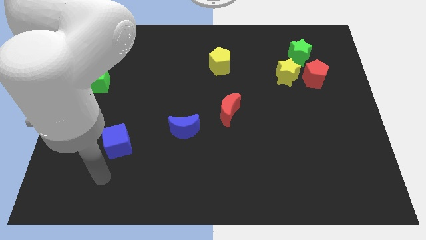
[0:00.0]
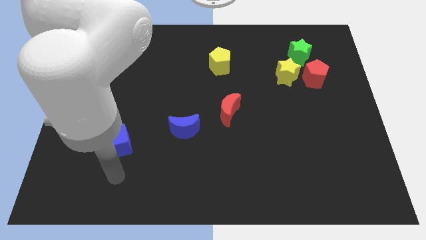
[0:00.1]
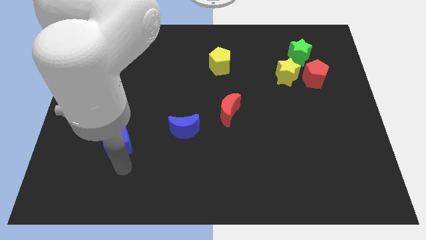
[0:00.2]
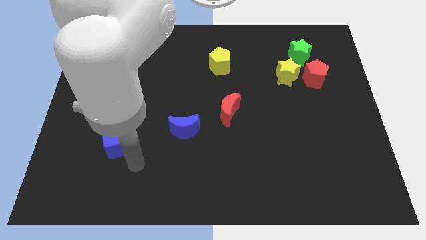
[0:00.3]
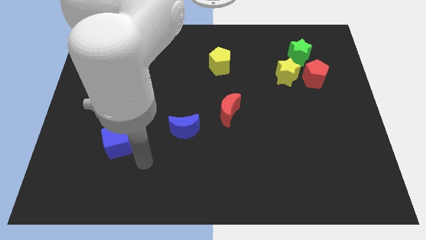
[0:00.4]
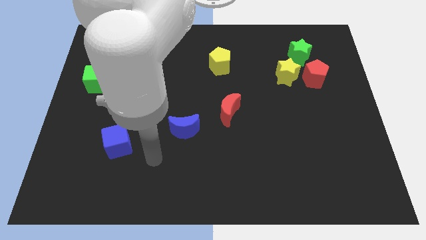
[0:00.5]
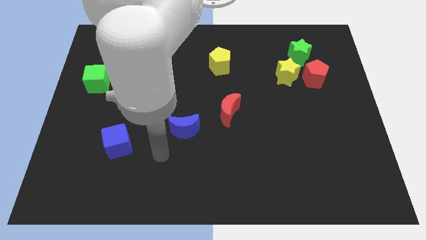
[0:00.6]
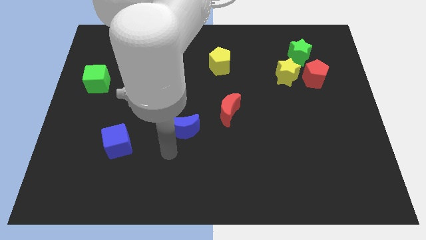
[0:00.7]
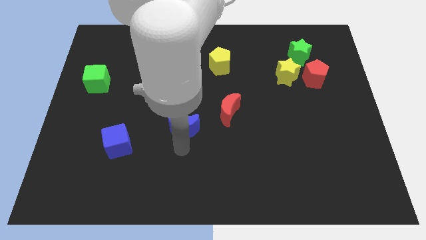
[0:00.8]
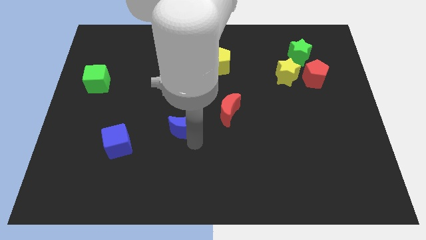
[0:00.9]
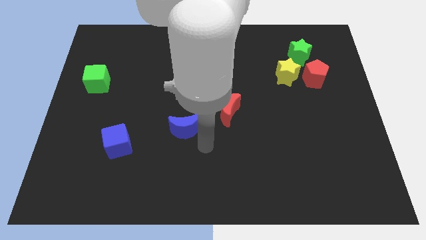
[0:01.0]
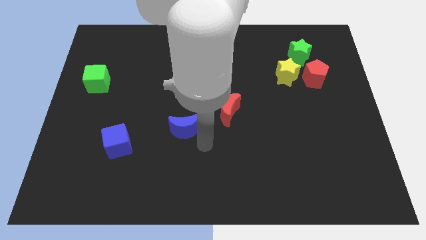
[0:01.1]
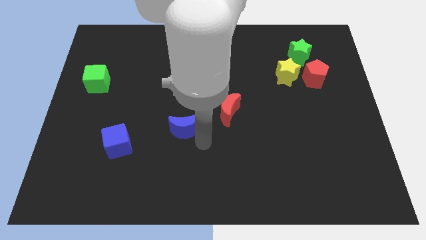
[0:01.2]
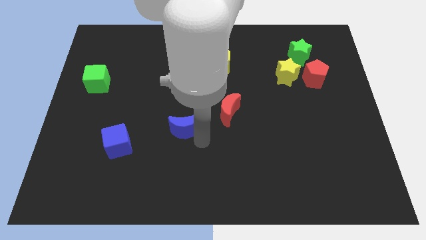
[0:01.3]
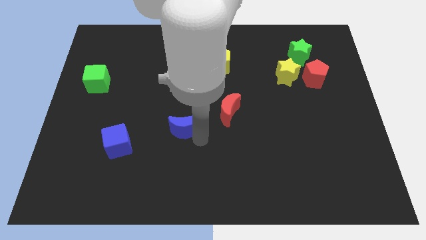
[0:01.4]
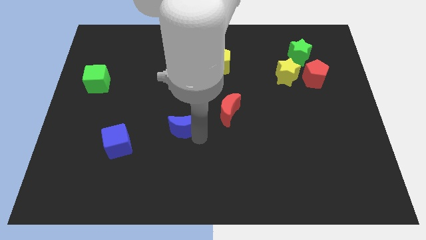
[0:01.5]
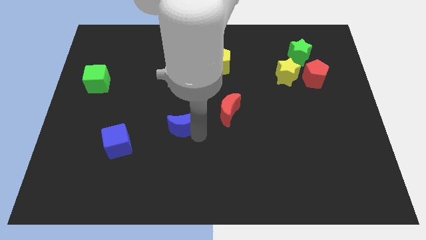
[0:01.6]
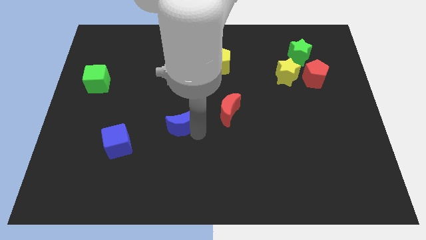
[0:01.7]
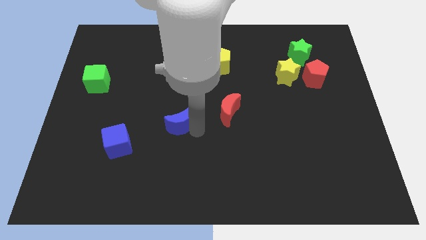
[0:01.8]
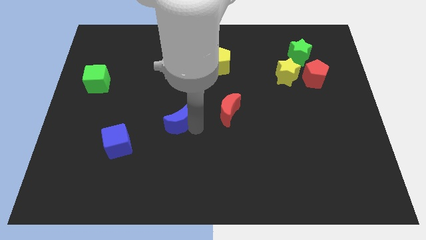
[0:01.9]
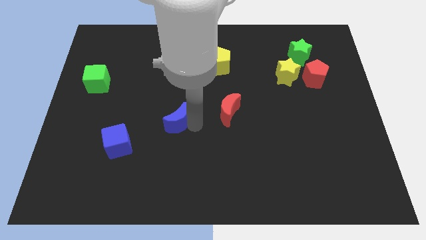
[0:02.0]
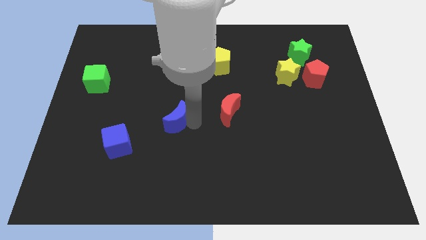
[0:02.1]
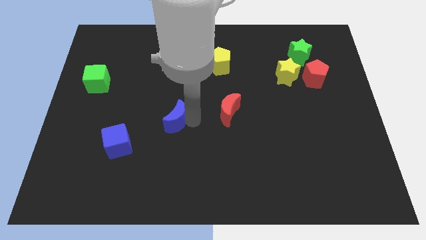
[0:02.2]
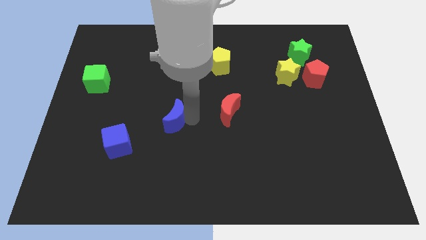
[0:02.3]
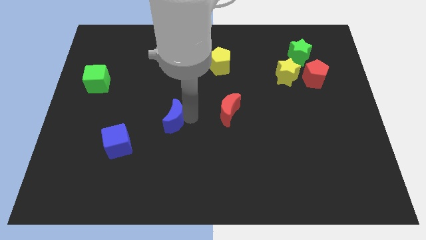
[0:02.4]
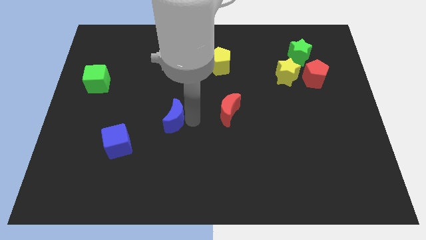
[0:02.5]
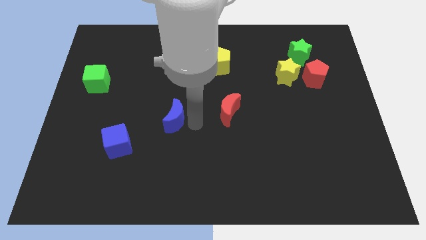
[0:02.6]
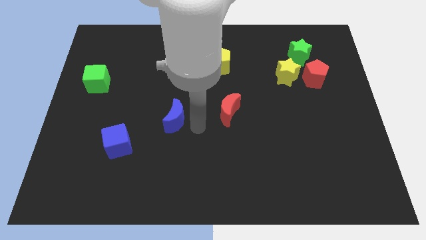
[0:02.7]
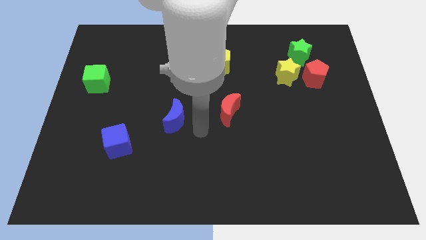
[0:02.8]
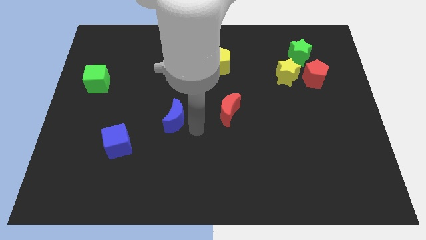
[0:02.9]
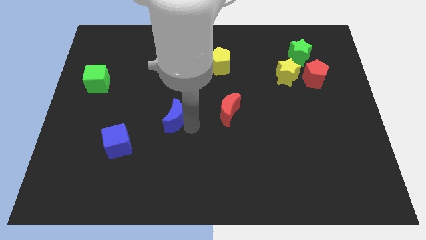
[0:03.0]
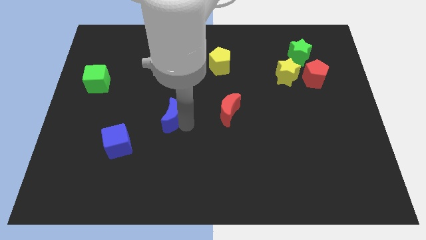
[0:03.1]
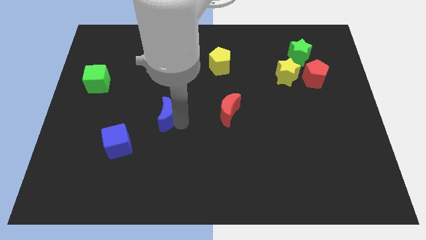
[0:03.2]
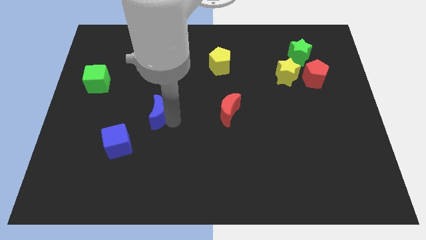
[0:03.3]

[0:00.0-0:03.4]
slightly push the blue moon upwards and then to the left

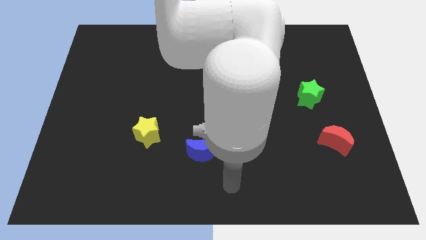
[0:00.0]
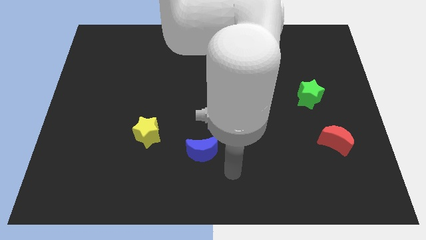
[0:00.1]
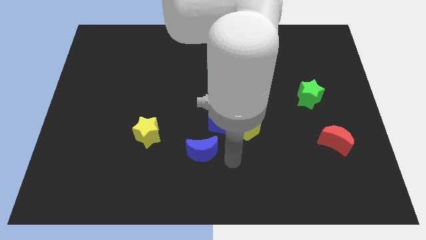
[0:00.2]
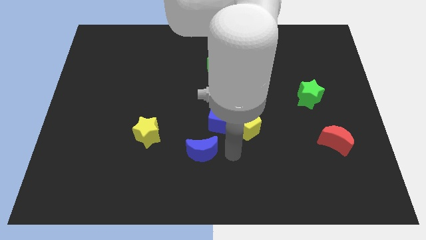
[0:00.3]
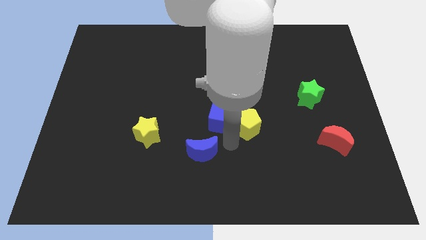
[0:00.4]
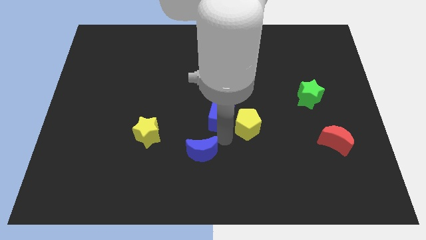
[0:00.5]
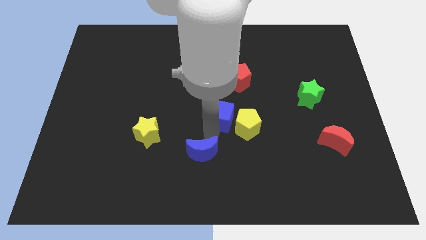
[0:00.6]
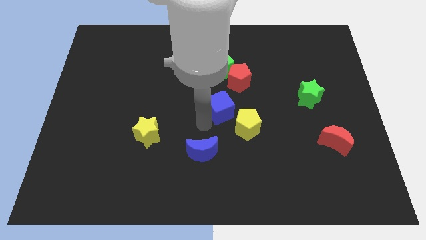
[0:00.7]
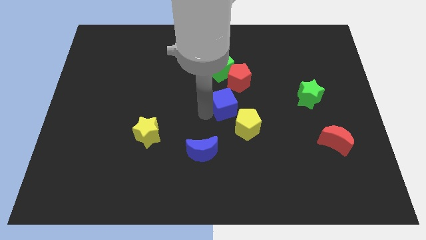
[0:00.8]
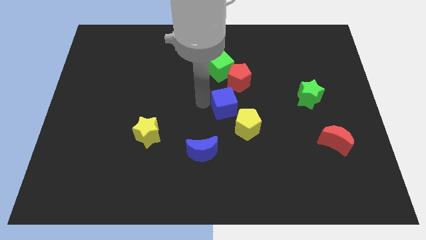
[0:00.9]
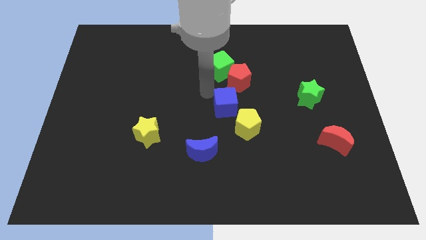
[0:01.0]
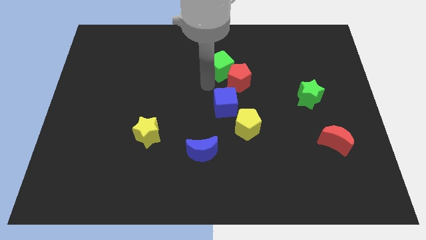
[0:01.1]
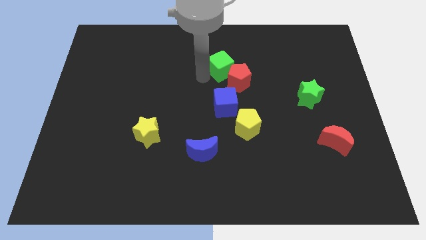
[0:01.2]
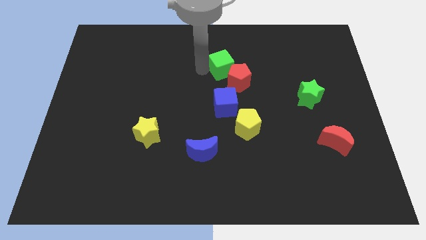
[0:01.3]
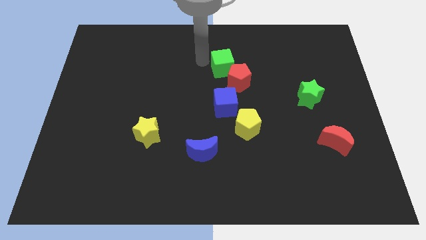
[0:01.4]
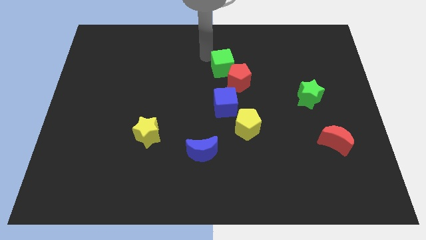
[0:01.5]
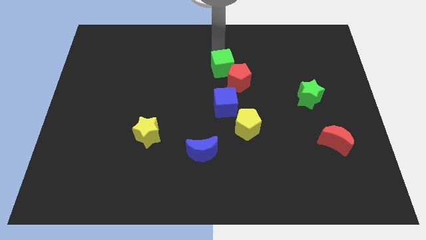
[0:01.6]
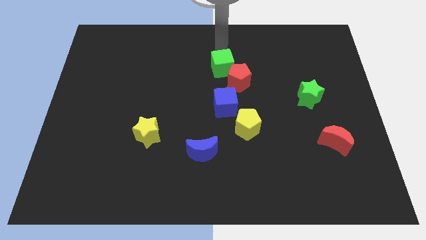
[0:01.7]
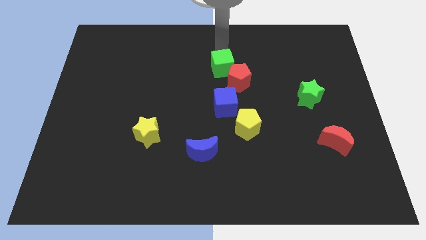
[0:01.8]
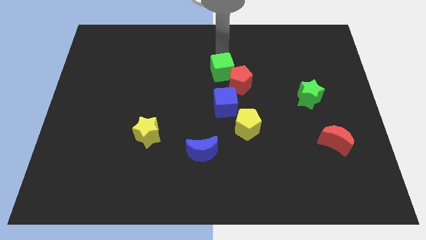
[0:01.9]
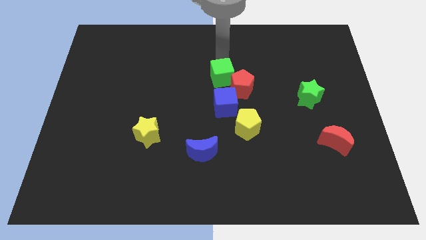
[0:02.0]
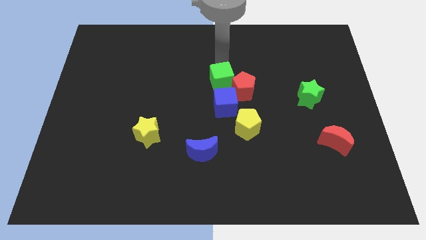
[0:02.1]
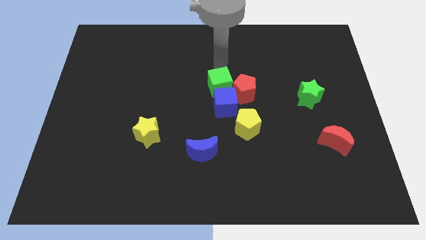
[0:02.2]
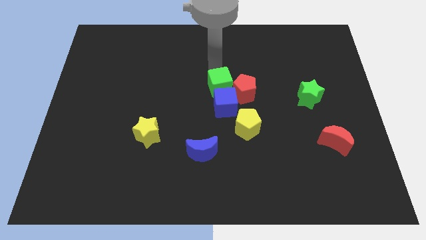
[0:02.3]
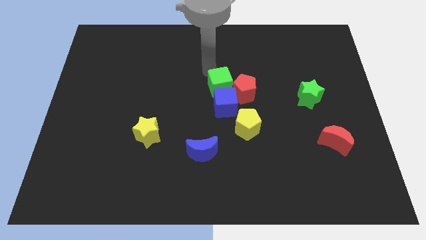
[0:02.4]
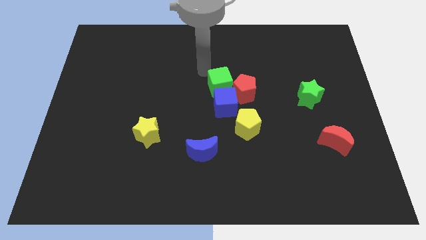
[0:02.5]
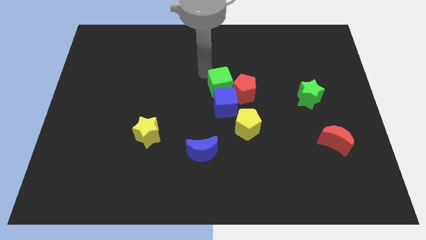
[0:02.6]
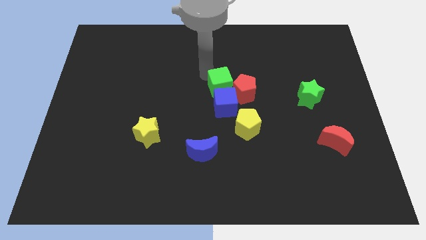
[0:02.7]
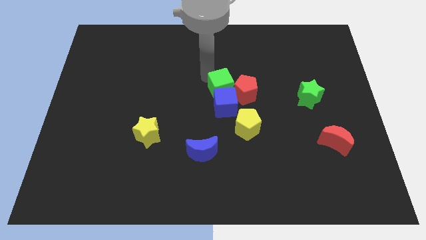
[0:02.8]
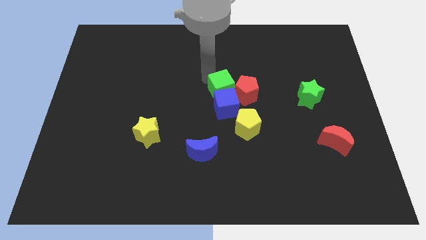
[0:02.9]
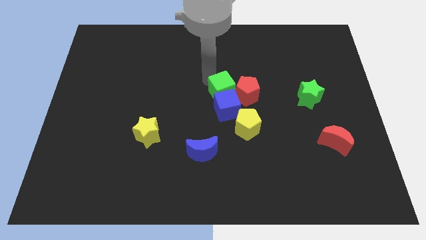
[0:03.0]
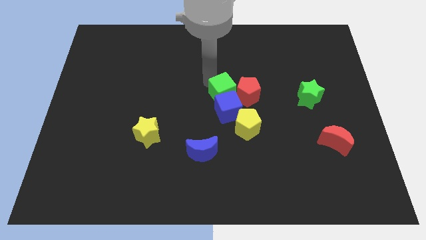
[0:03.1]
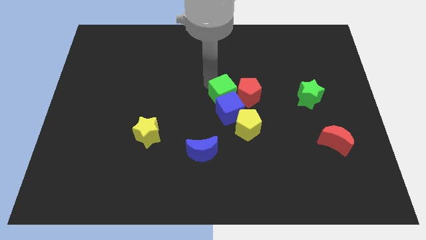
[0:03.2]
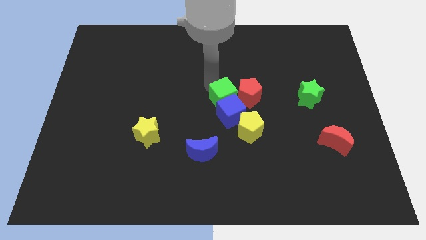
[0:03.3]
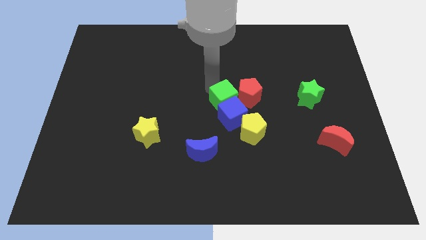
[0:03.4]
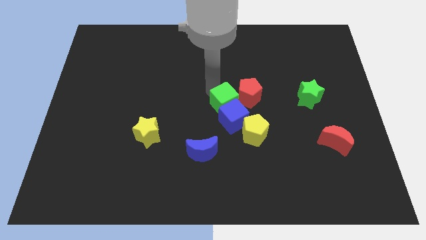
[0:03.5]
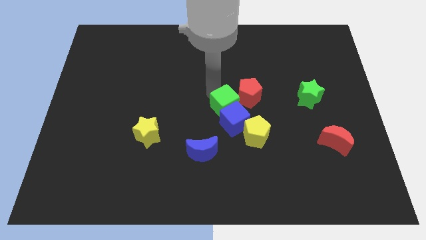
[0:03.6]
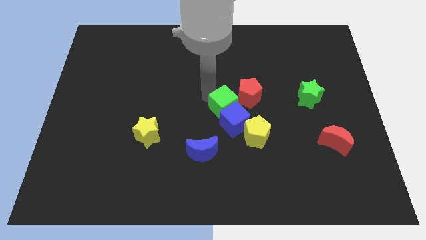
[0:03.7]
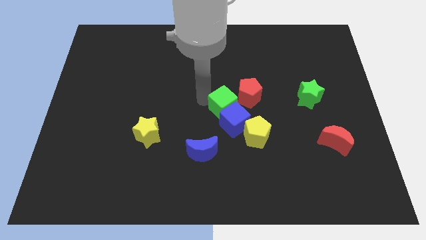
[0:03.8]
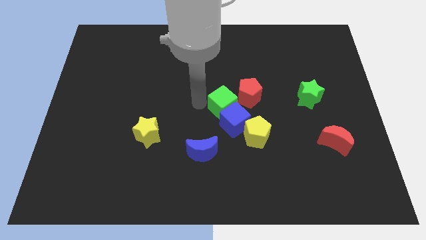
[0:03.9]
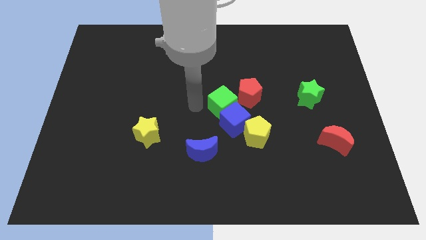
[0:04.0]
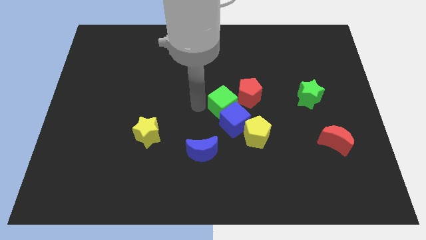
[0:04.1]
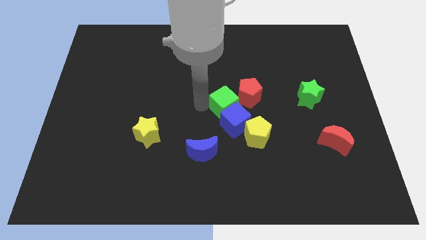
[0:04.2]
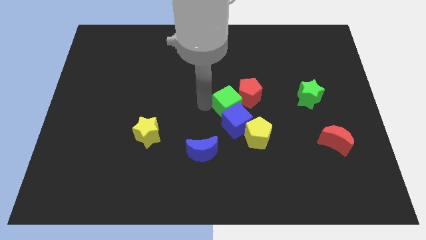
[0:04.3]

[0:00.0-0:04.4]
slide the green cube down and right diagonally somewhat

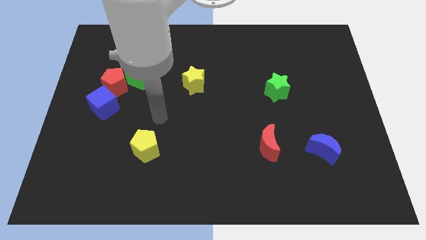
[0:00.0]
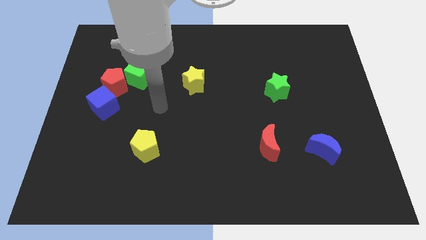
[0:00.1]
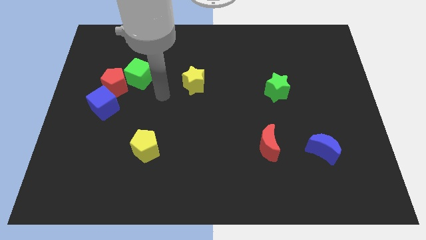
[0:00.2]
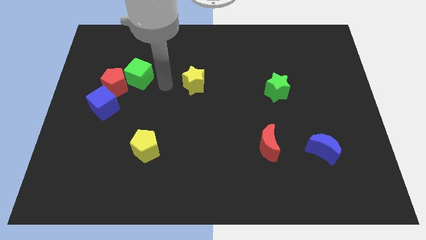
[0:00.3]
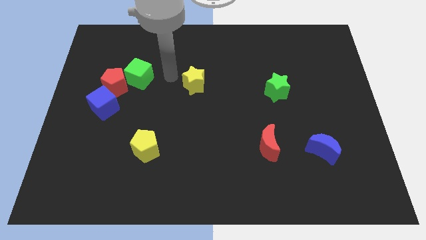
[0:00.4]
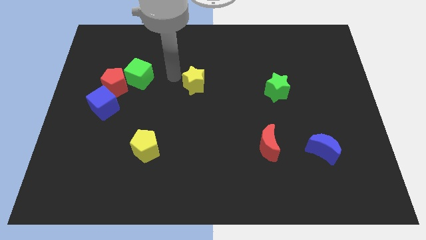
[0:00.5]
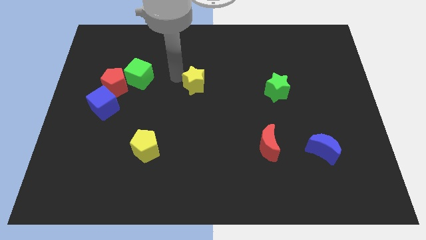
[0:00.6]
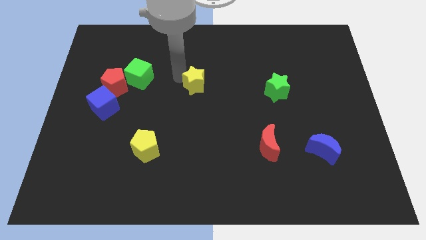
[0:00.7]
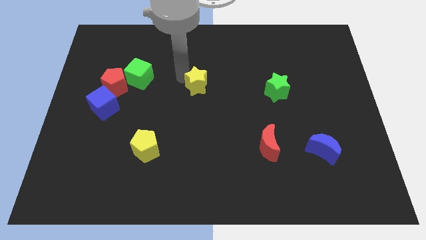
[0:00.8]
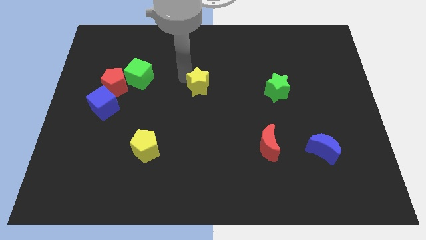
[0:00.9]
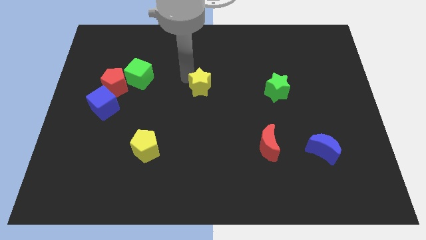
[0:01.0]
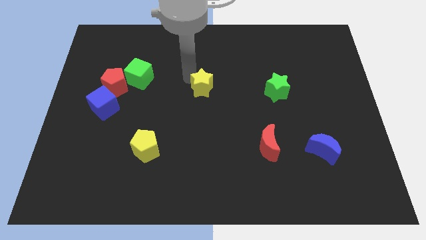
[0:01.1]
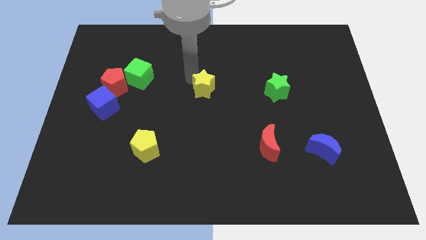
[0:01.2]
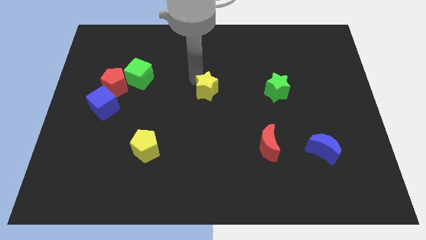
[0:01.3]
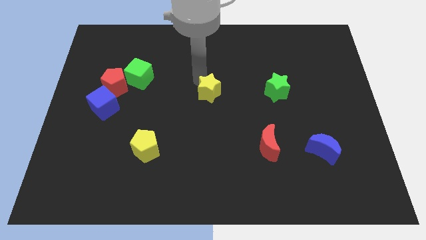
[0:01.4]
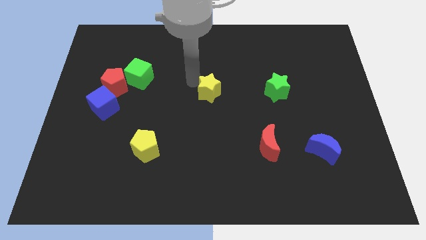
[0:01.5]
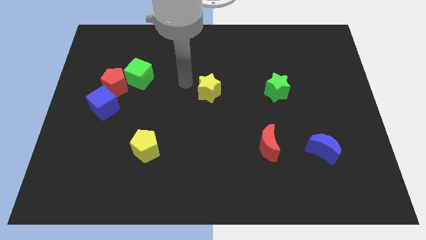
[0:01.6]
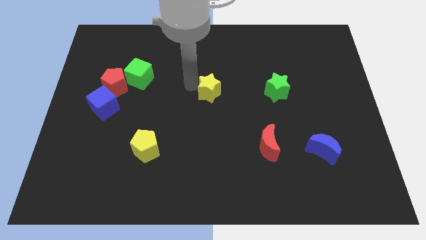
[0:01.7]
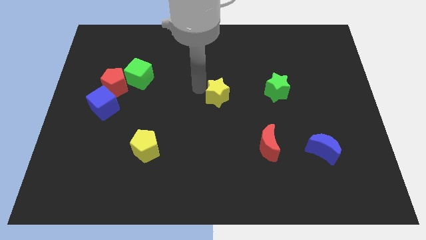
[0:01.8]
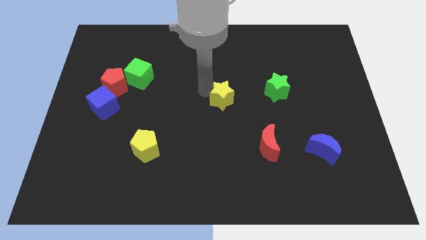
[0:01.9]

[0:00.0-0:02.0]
slightly push the yellow star down and to the right diagonally
